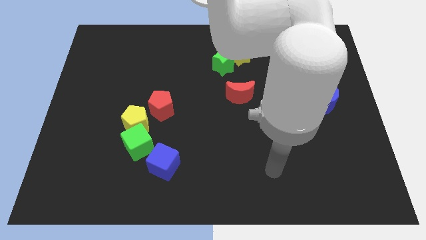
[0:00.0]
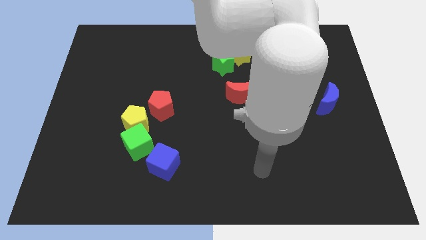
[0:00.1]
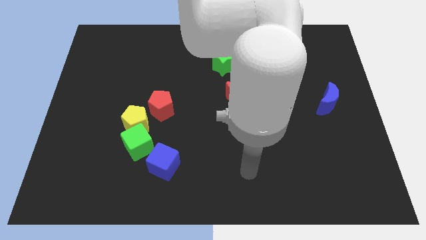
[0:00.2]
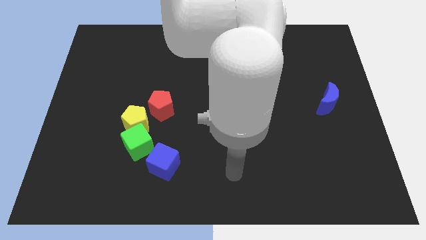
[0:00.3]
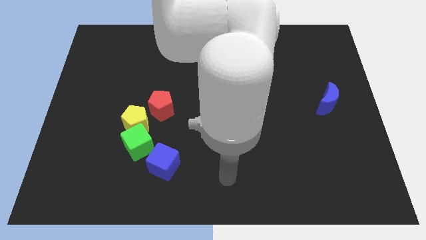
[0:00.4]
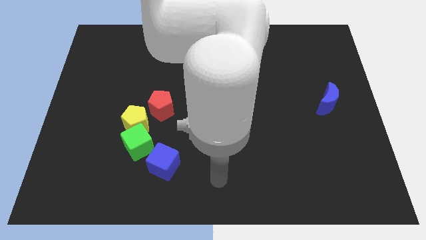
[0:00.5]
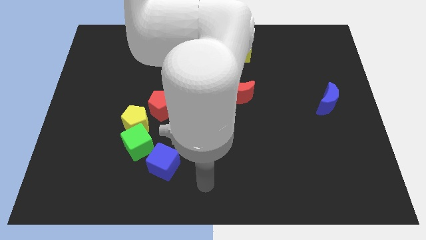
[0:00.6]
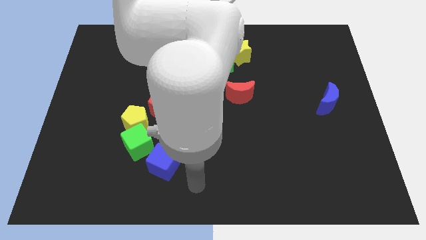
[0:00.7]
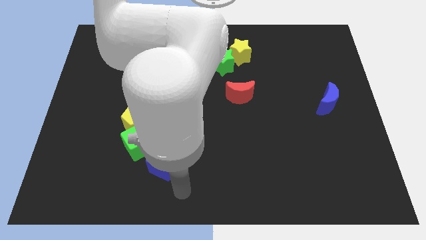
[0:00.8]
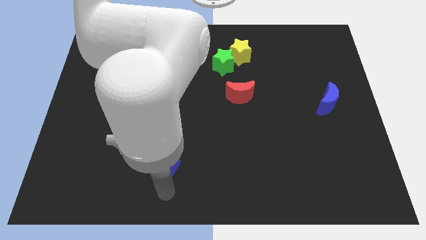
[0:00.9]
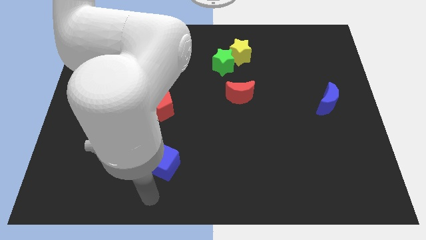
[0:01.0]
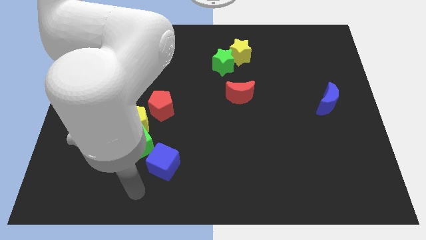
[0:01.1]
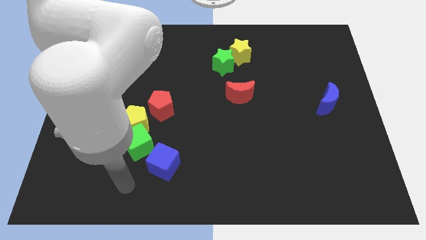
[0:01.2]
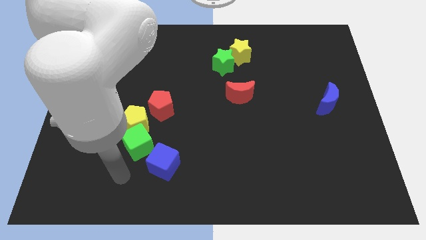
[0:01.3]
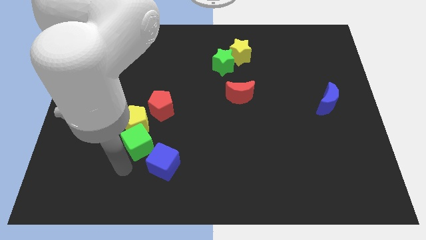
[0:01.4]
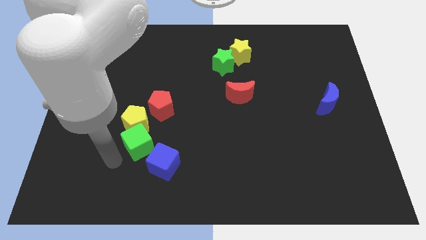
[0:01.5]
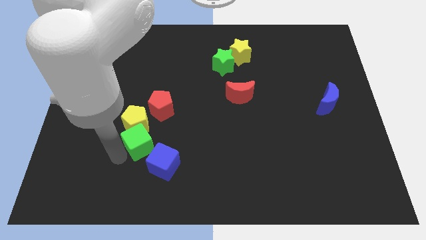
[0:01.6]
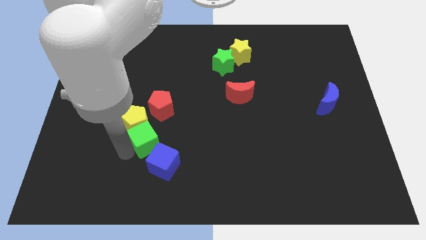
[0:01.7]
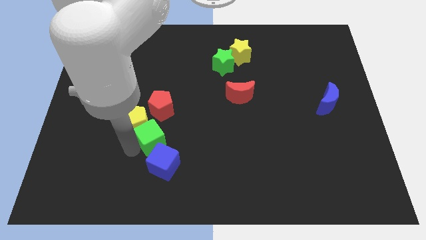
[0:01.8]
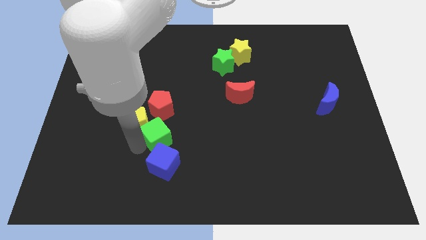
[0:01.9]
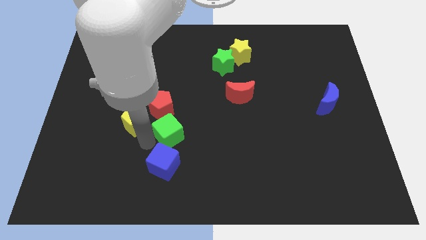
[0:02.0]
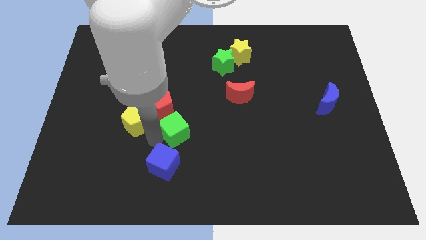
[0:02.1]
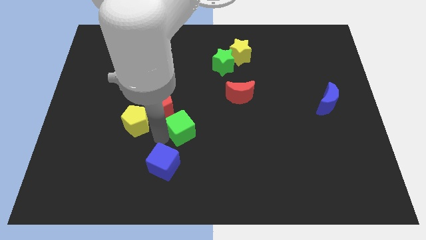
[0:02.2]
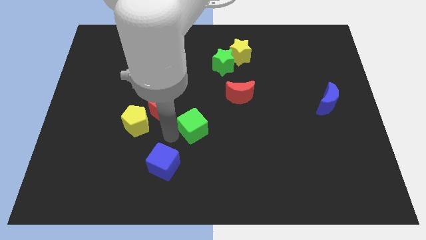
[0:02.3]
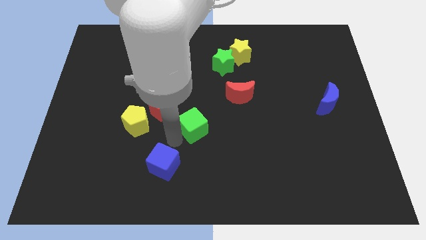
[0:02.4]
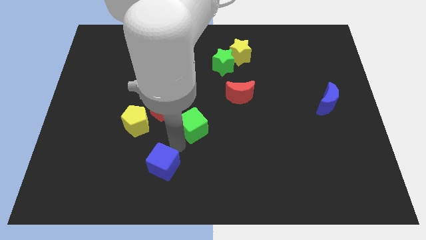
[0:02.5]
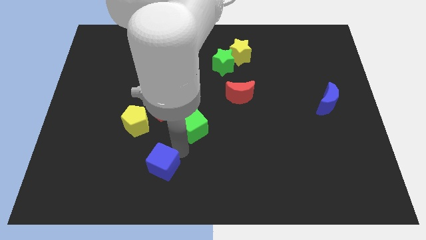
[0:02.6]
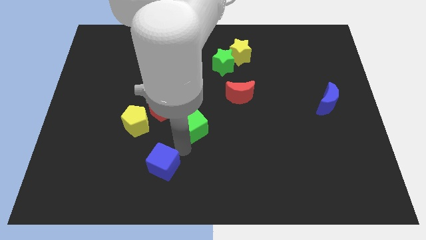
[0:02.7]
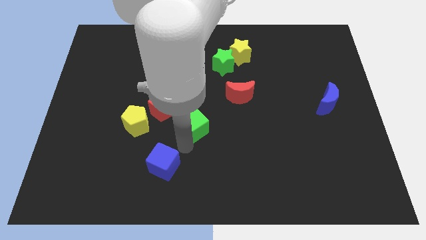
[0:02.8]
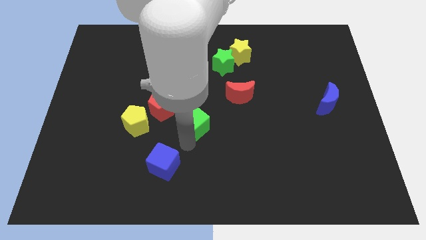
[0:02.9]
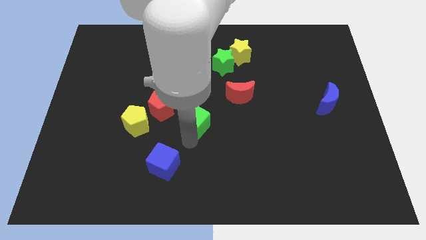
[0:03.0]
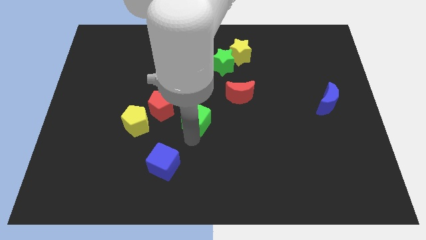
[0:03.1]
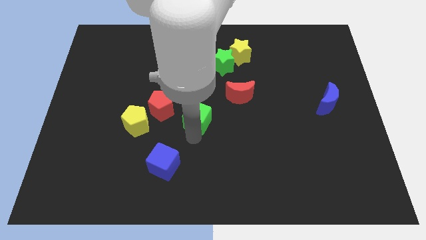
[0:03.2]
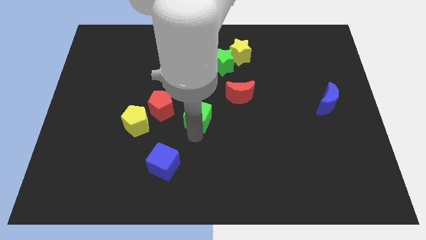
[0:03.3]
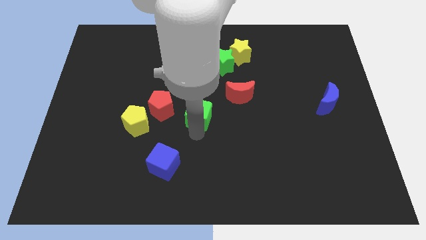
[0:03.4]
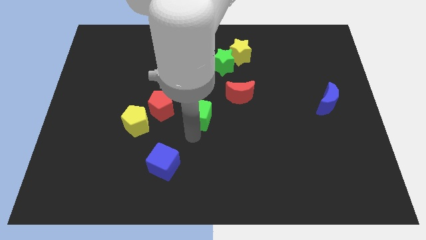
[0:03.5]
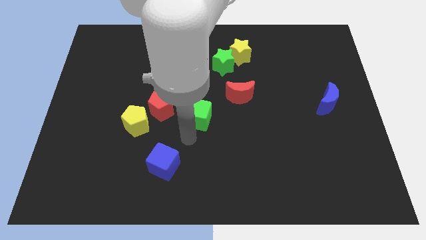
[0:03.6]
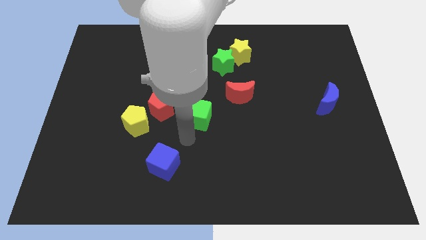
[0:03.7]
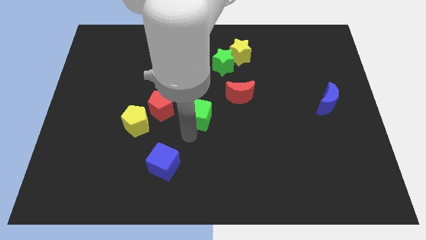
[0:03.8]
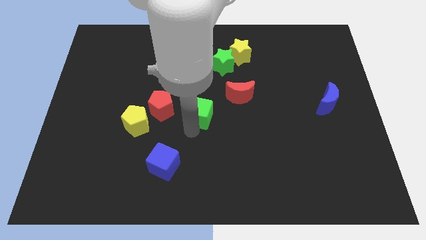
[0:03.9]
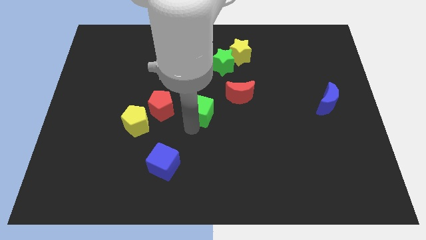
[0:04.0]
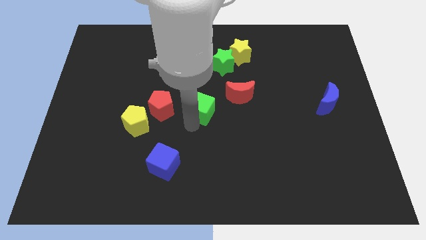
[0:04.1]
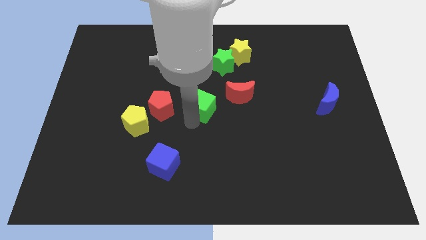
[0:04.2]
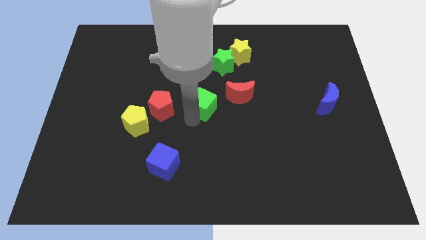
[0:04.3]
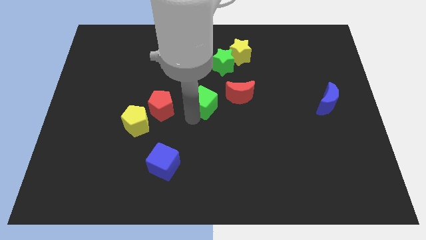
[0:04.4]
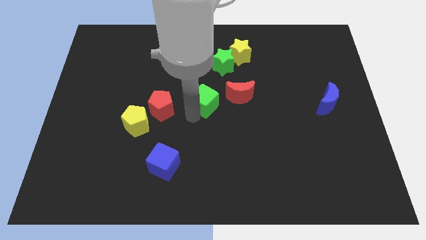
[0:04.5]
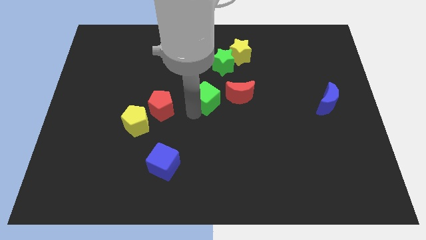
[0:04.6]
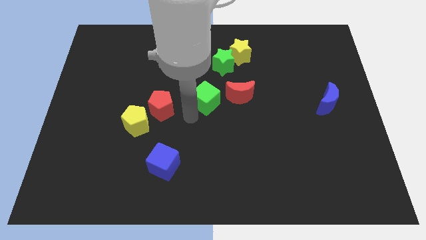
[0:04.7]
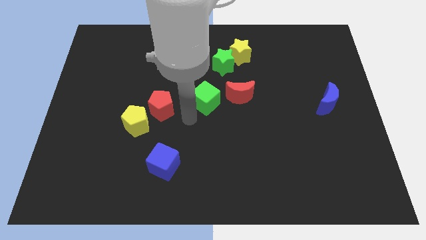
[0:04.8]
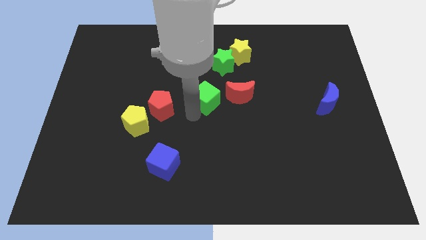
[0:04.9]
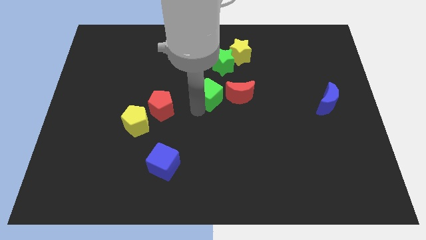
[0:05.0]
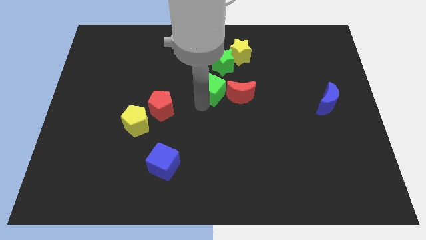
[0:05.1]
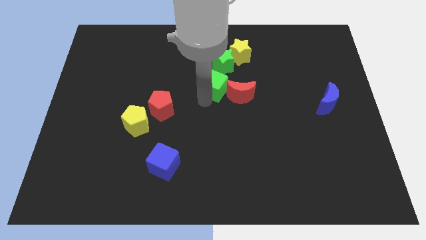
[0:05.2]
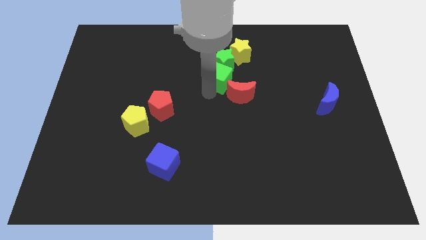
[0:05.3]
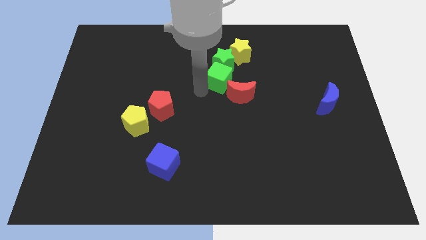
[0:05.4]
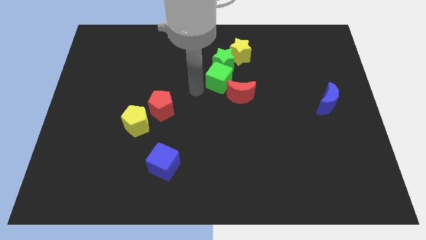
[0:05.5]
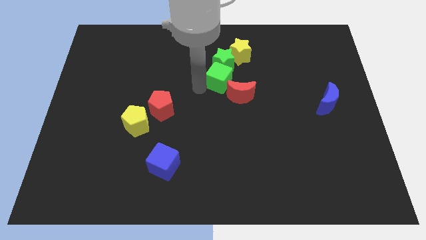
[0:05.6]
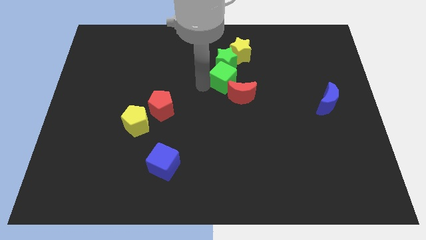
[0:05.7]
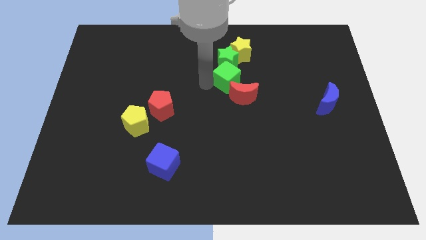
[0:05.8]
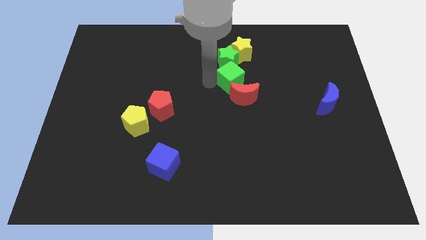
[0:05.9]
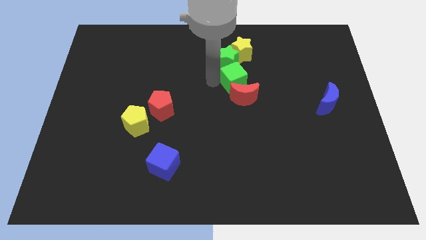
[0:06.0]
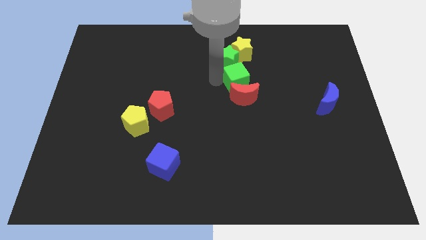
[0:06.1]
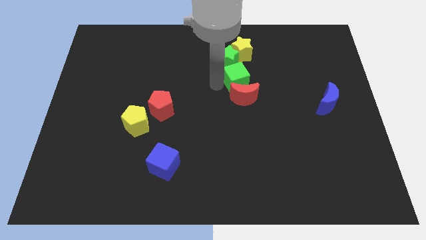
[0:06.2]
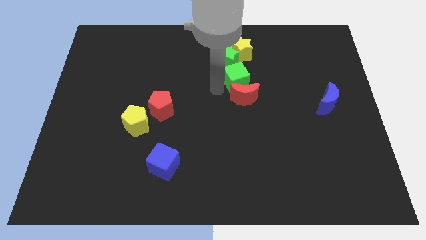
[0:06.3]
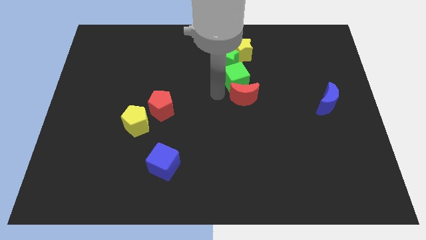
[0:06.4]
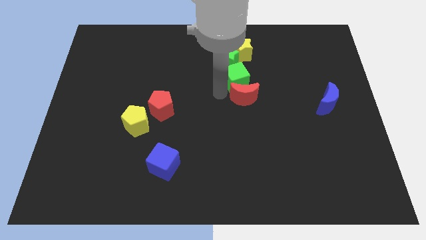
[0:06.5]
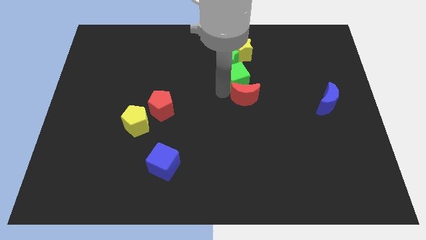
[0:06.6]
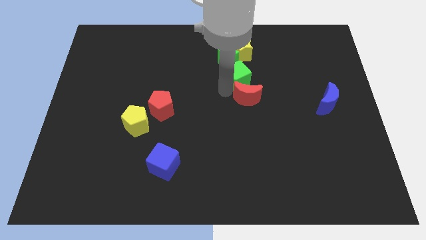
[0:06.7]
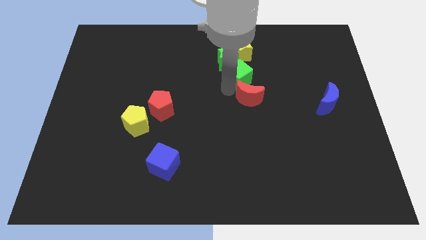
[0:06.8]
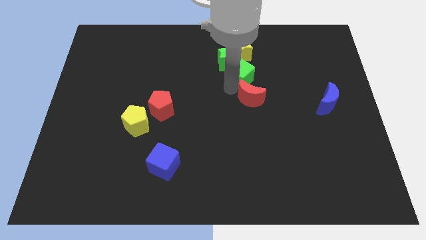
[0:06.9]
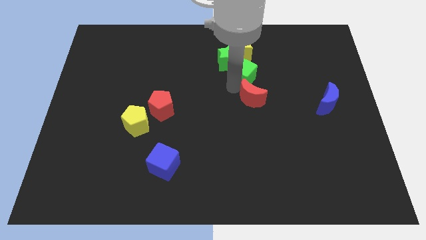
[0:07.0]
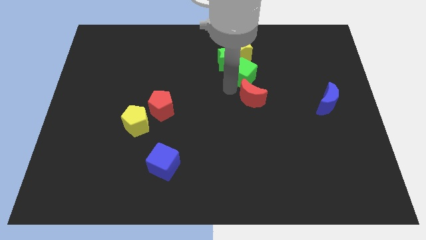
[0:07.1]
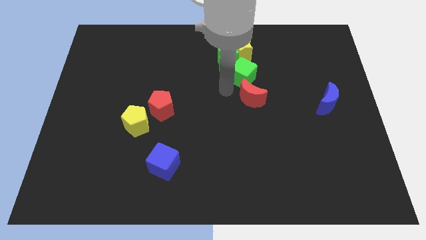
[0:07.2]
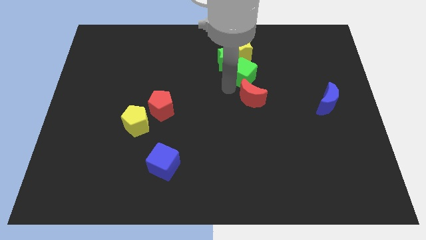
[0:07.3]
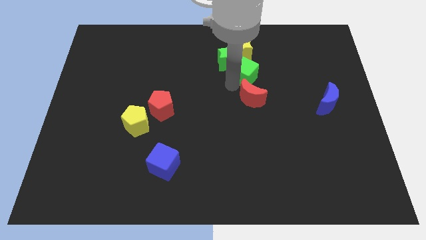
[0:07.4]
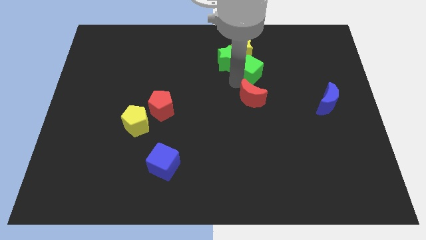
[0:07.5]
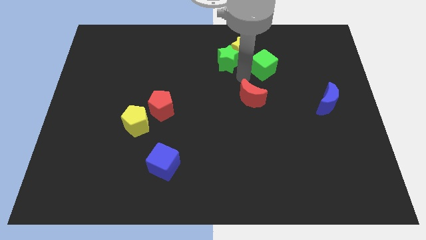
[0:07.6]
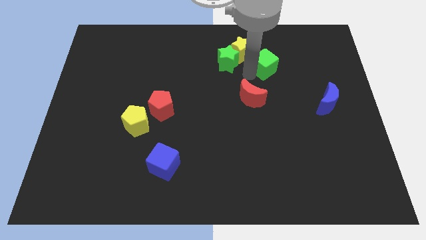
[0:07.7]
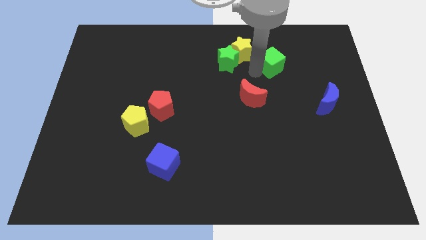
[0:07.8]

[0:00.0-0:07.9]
push the green cube just right of the yellow star
